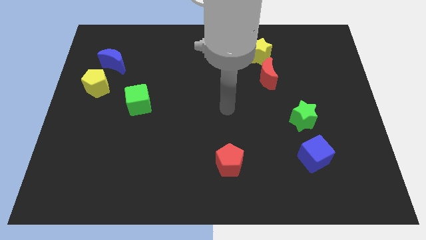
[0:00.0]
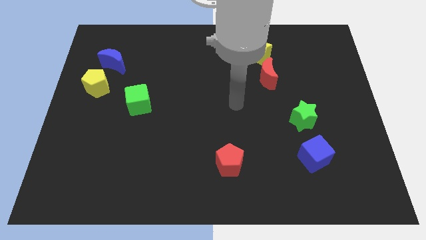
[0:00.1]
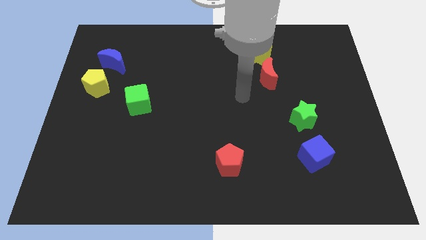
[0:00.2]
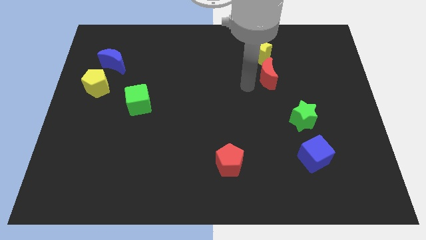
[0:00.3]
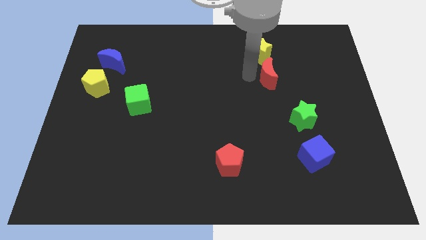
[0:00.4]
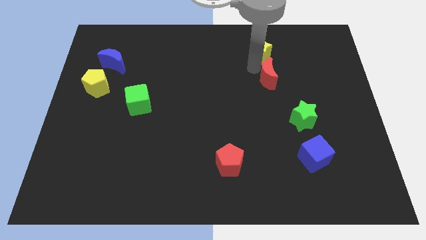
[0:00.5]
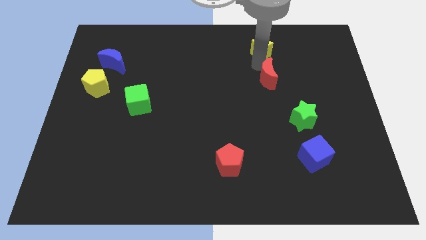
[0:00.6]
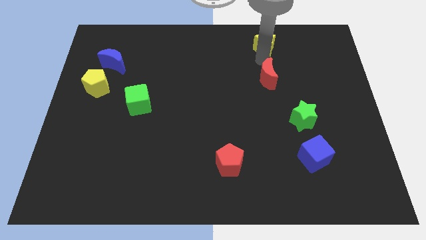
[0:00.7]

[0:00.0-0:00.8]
pull the red moon apart from the yellow star

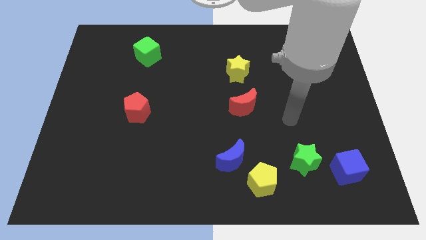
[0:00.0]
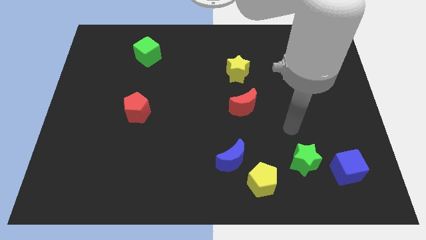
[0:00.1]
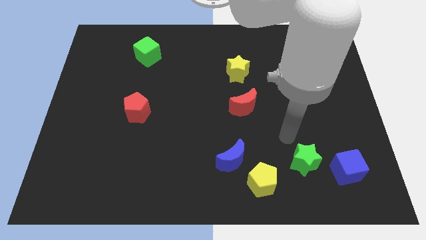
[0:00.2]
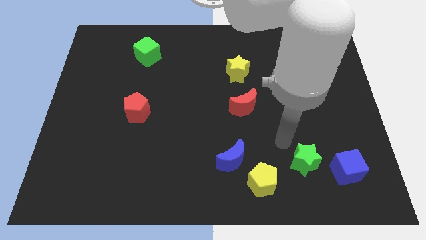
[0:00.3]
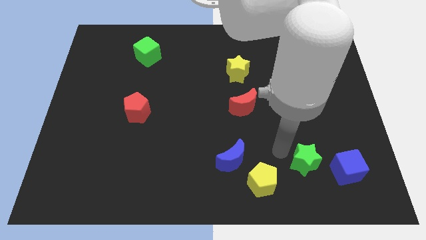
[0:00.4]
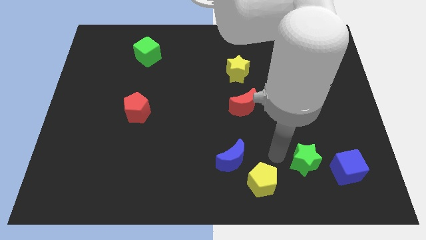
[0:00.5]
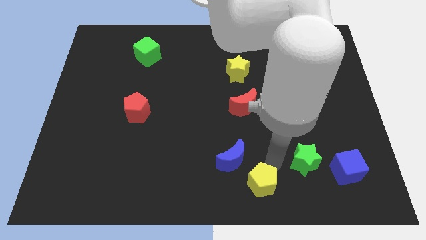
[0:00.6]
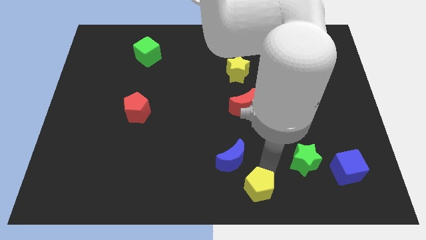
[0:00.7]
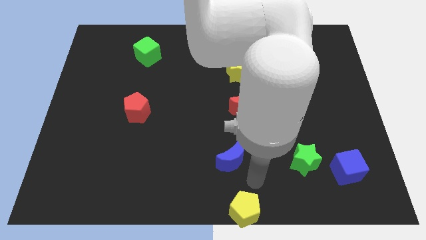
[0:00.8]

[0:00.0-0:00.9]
move the blue moon away from the yellow pentagon

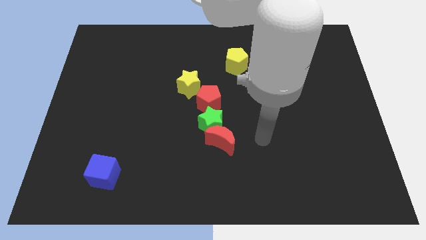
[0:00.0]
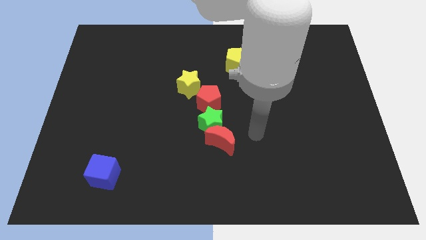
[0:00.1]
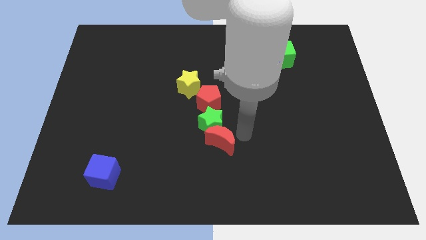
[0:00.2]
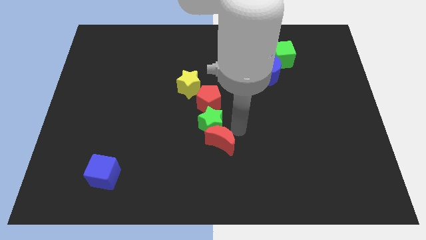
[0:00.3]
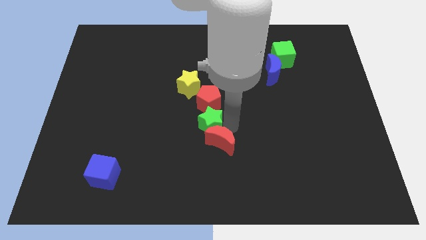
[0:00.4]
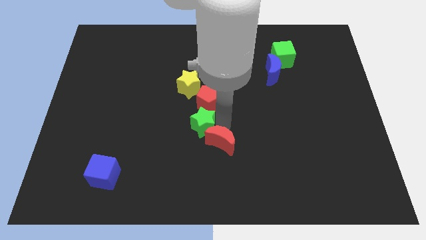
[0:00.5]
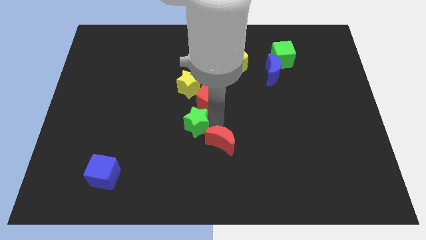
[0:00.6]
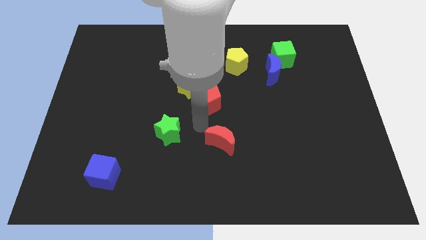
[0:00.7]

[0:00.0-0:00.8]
move the red moon away from the green star

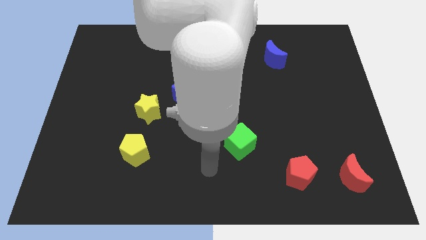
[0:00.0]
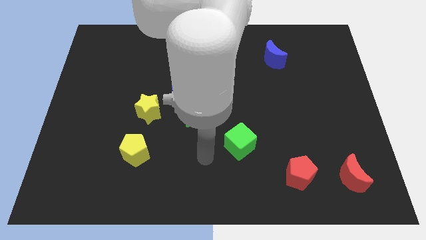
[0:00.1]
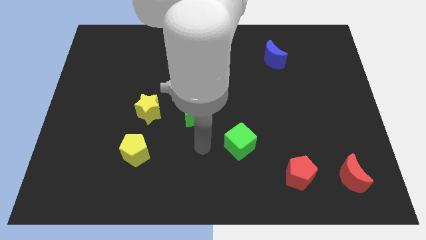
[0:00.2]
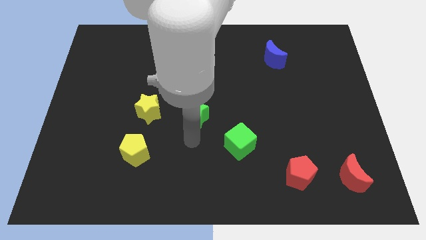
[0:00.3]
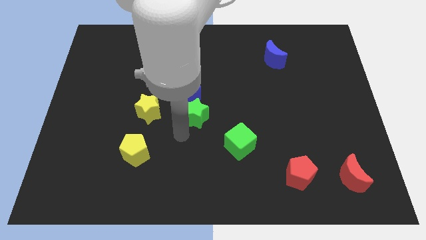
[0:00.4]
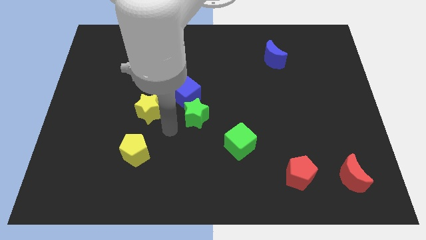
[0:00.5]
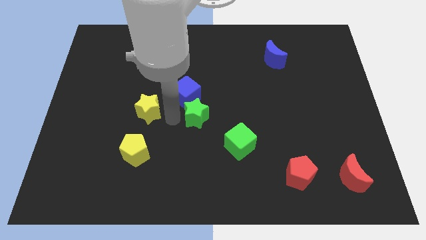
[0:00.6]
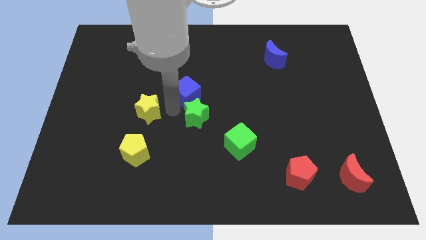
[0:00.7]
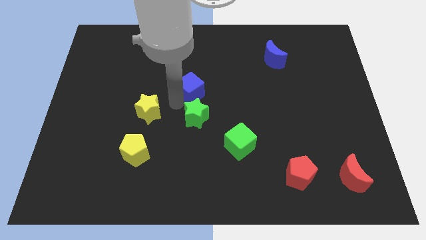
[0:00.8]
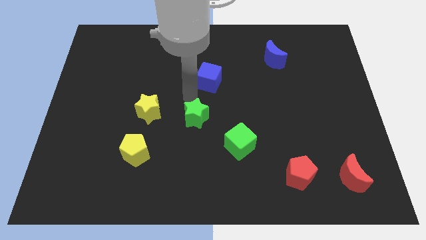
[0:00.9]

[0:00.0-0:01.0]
separate the green star from the blue cube

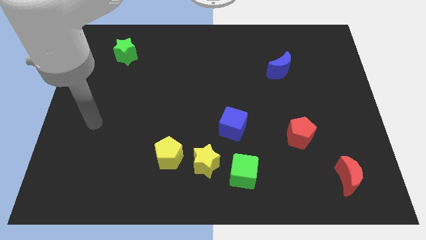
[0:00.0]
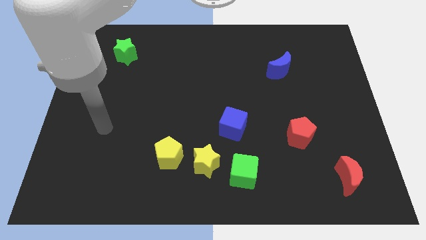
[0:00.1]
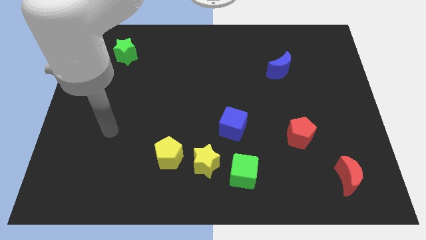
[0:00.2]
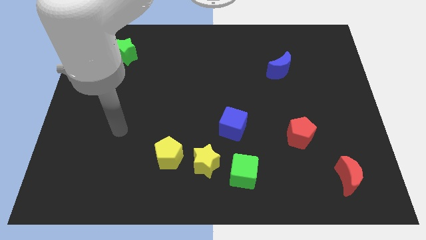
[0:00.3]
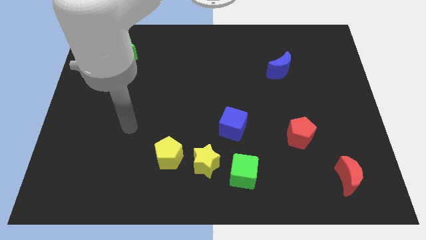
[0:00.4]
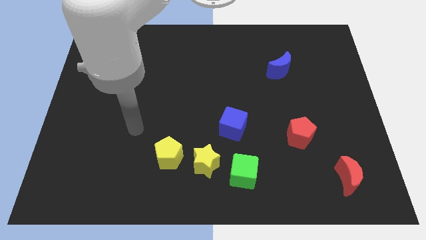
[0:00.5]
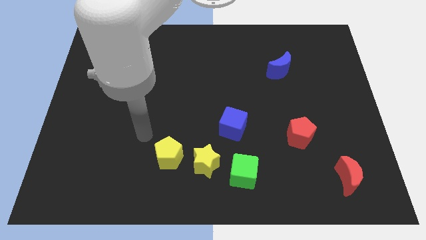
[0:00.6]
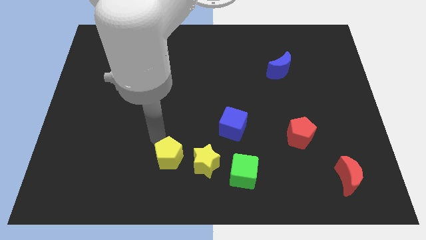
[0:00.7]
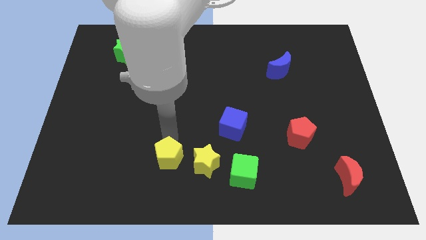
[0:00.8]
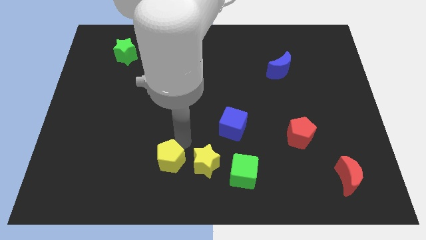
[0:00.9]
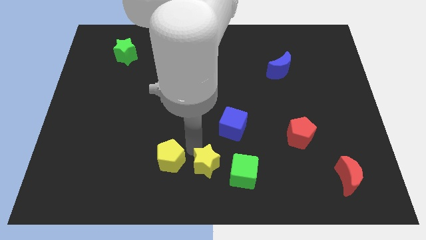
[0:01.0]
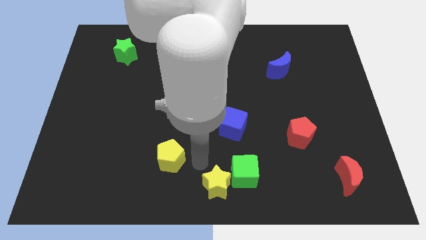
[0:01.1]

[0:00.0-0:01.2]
move the yellow pentagon away from the yellow star

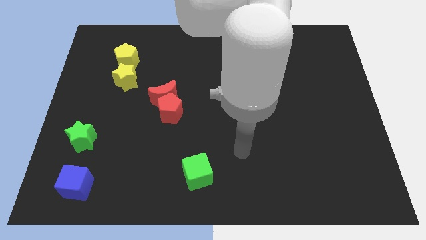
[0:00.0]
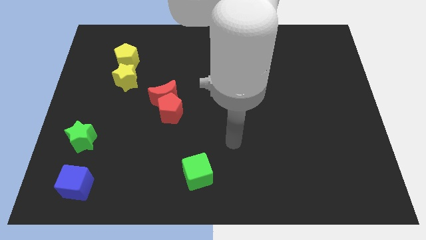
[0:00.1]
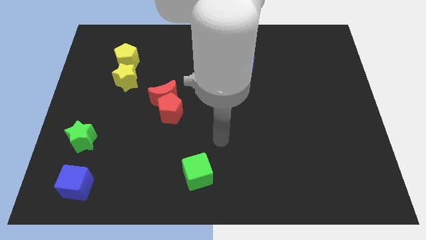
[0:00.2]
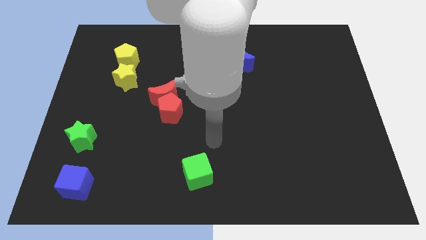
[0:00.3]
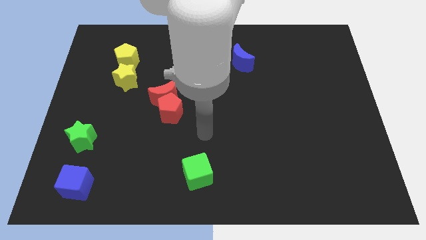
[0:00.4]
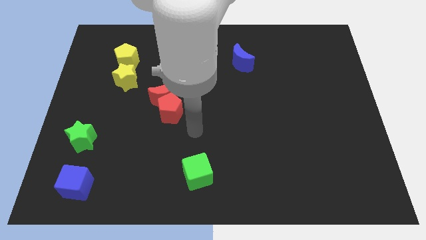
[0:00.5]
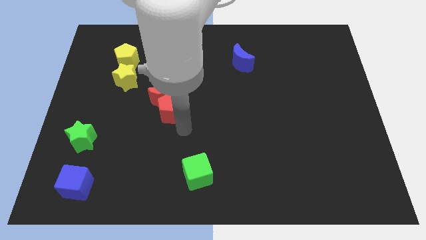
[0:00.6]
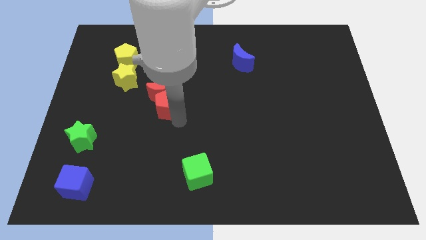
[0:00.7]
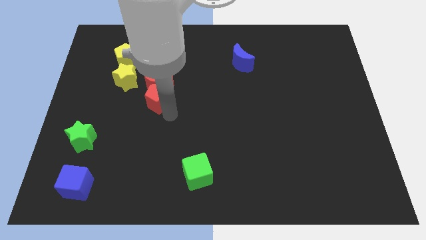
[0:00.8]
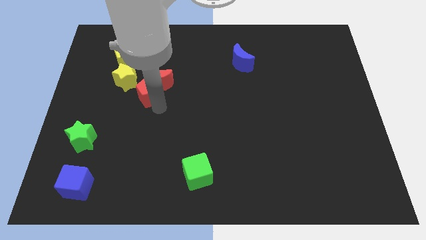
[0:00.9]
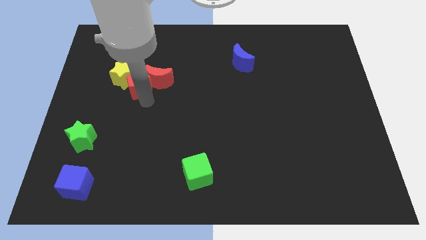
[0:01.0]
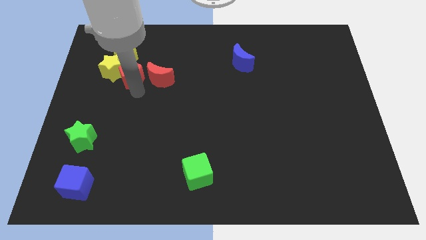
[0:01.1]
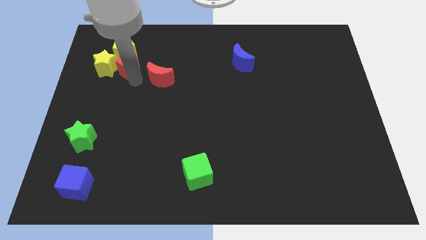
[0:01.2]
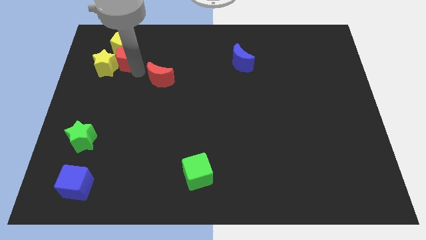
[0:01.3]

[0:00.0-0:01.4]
move the red moon away from the red pentagon

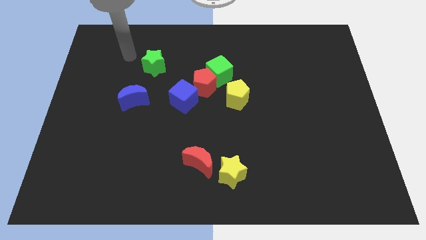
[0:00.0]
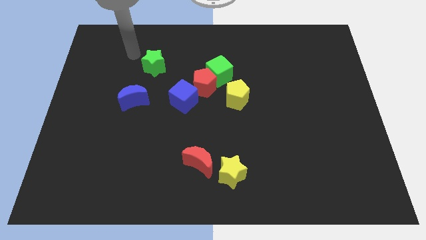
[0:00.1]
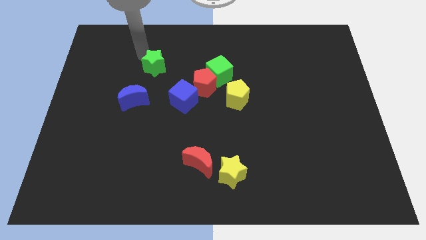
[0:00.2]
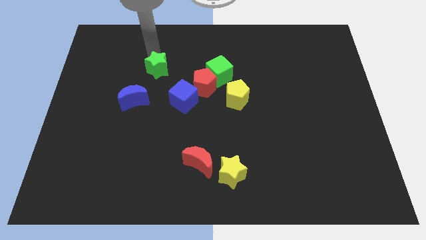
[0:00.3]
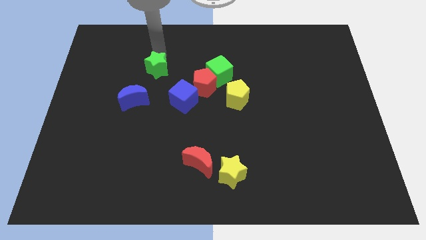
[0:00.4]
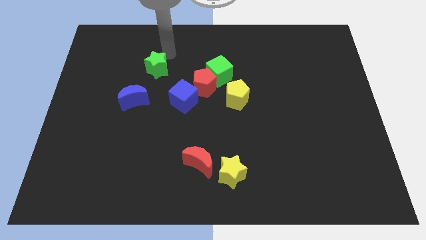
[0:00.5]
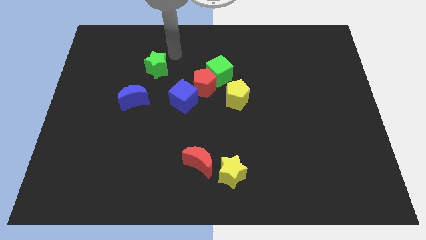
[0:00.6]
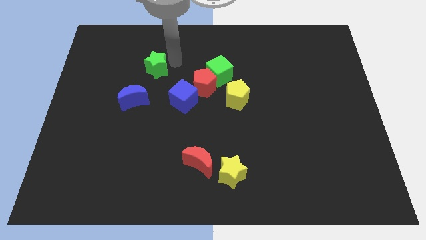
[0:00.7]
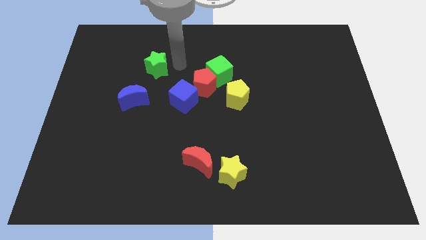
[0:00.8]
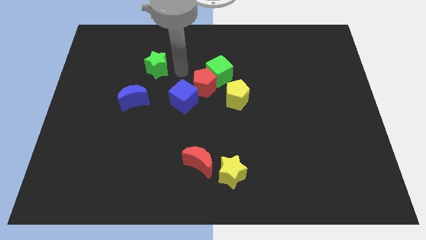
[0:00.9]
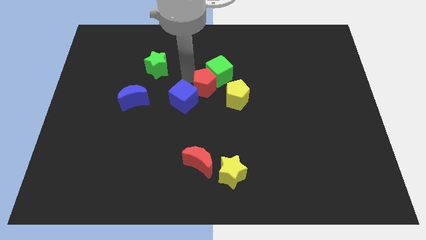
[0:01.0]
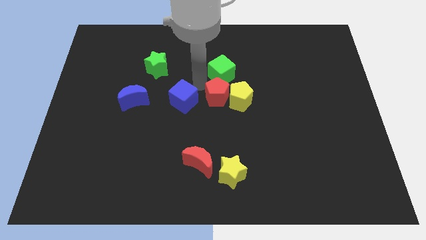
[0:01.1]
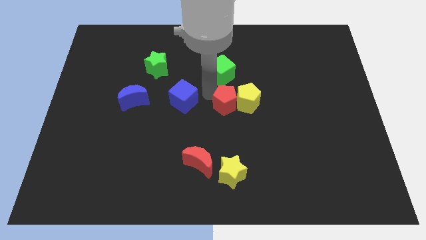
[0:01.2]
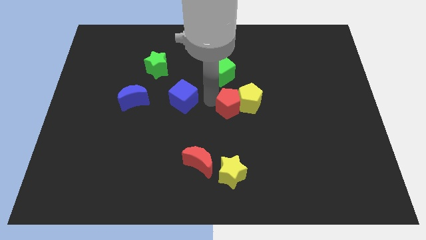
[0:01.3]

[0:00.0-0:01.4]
separate the blue cube from the red pentagon

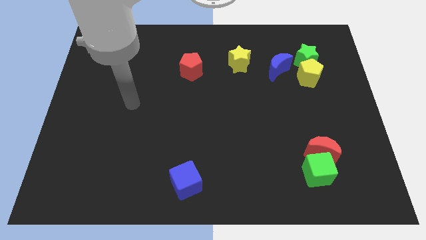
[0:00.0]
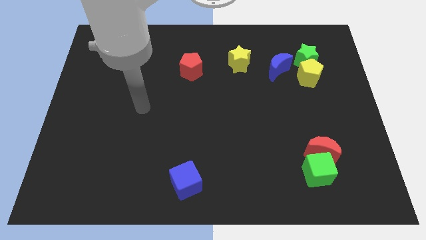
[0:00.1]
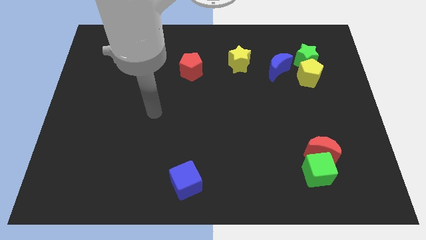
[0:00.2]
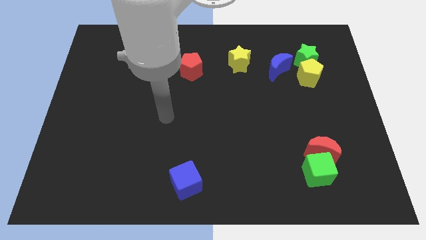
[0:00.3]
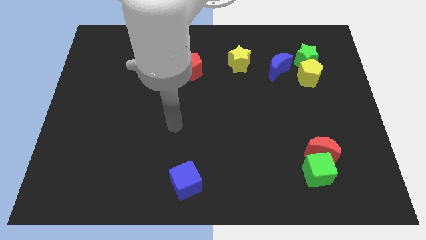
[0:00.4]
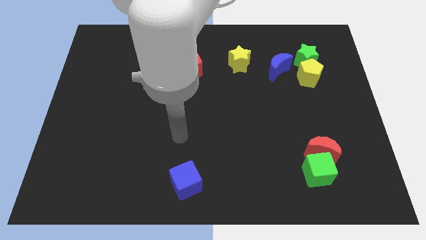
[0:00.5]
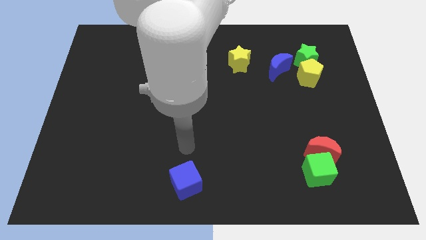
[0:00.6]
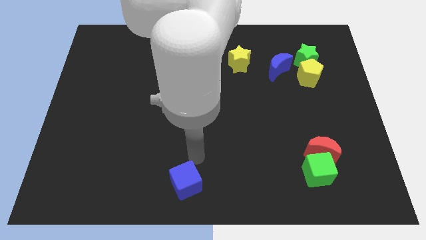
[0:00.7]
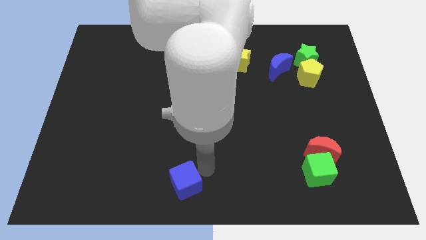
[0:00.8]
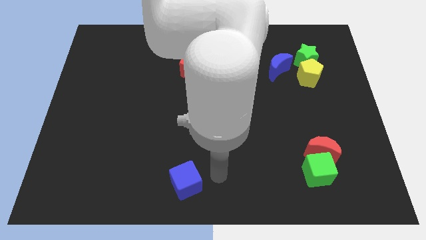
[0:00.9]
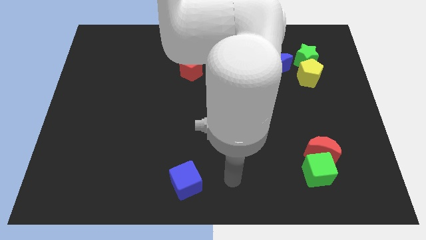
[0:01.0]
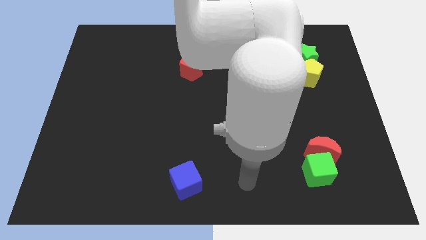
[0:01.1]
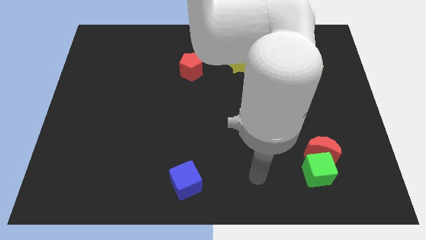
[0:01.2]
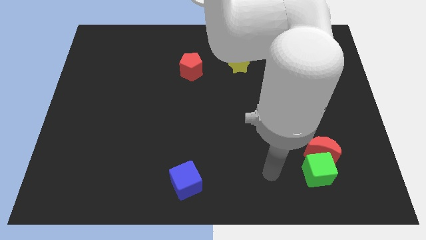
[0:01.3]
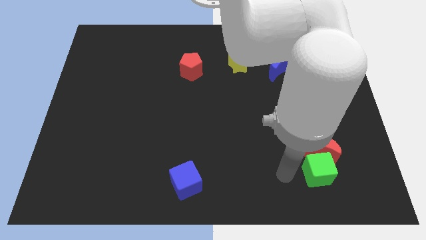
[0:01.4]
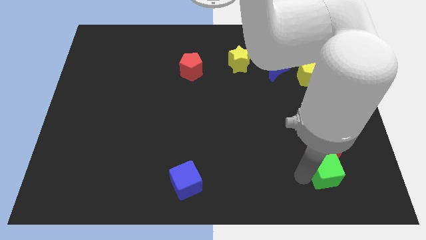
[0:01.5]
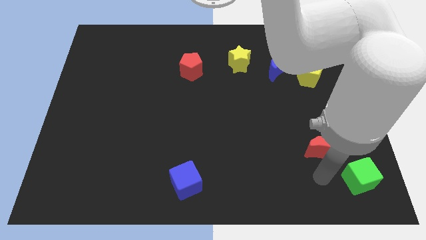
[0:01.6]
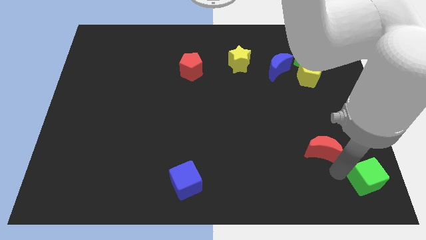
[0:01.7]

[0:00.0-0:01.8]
move the red moon away from the green cube
